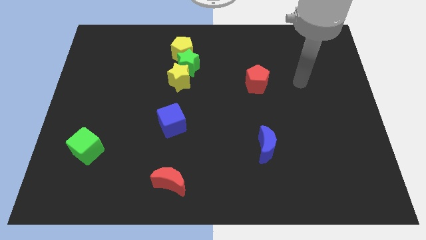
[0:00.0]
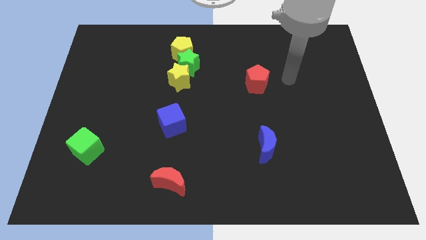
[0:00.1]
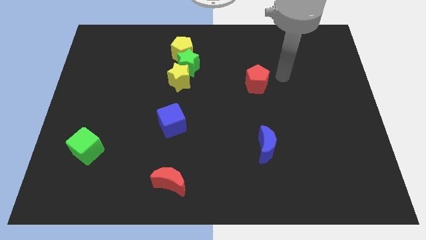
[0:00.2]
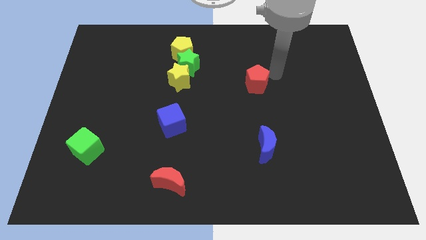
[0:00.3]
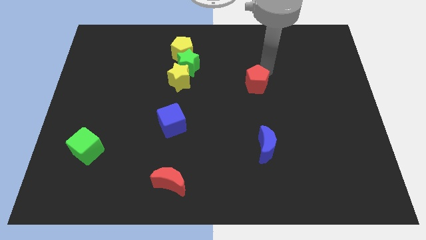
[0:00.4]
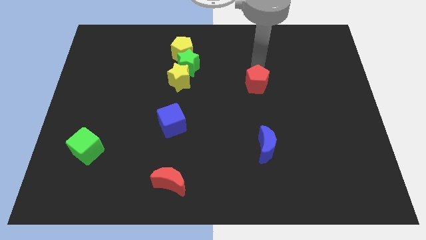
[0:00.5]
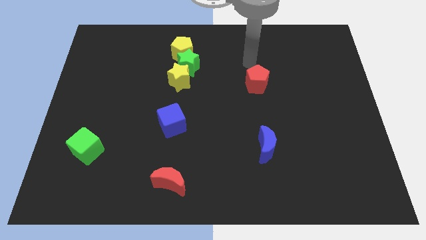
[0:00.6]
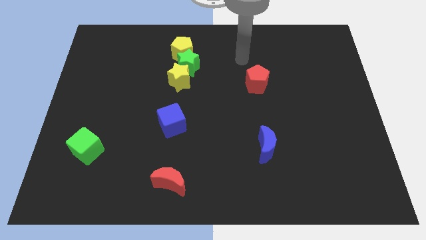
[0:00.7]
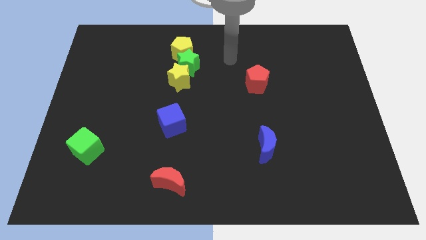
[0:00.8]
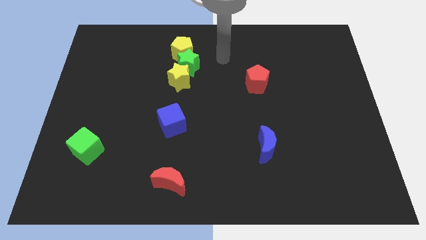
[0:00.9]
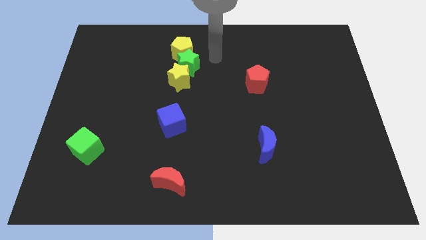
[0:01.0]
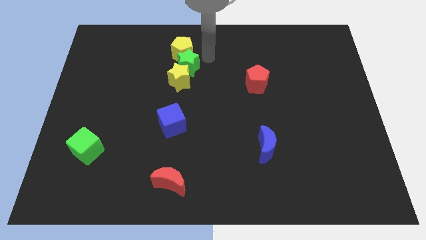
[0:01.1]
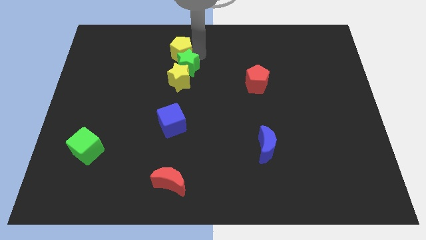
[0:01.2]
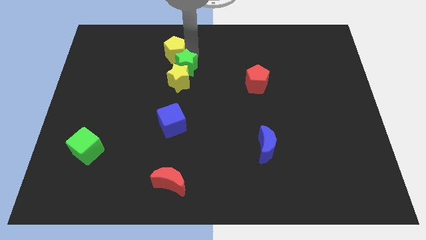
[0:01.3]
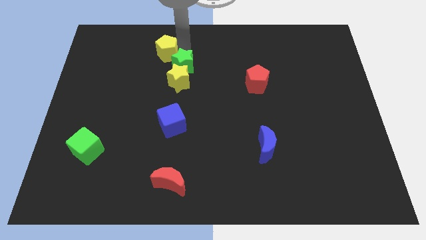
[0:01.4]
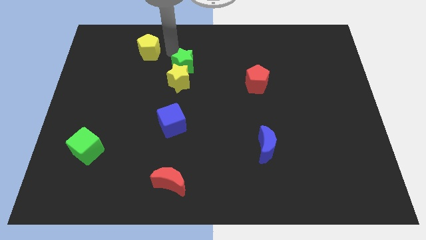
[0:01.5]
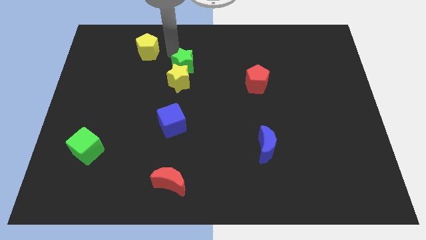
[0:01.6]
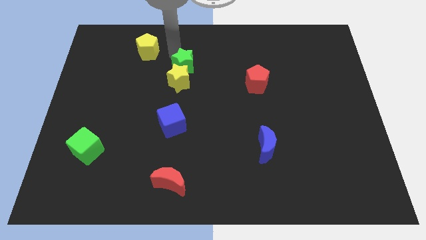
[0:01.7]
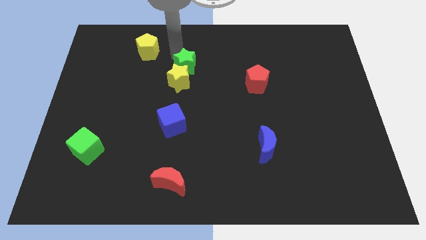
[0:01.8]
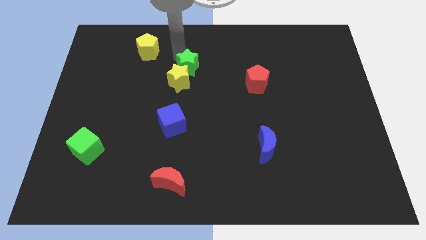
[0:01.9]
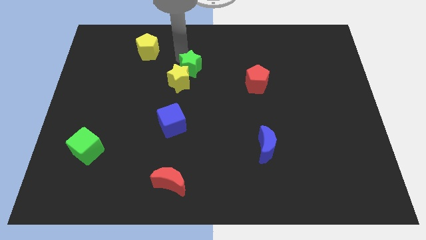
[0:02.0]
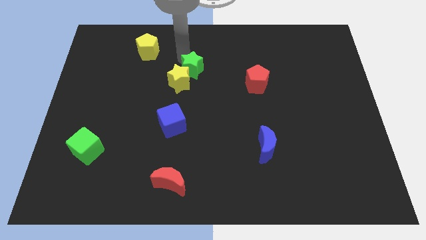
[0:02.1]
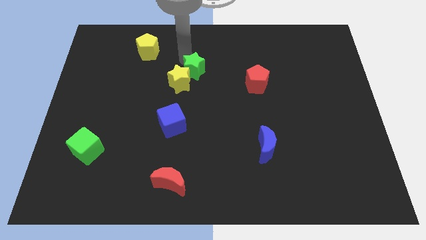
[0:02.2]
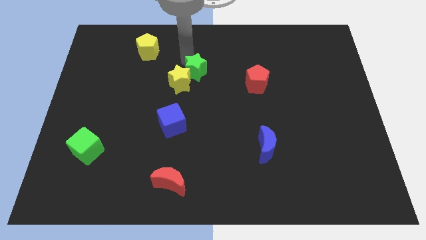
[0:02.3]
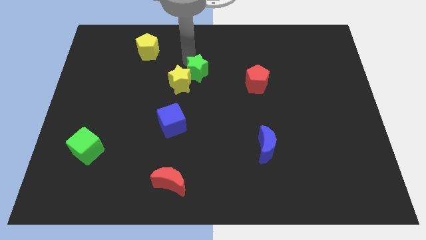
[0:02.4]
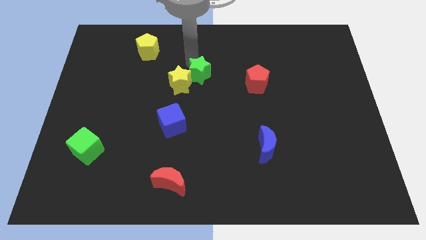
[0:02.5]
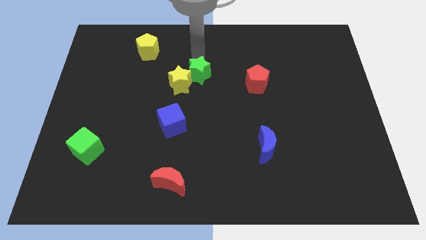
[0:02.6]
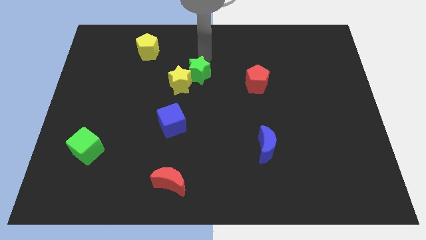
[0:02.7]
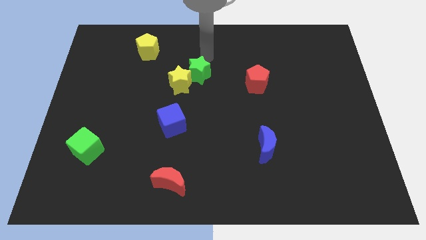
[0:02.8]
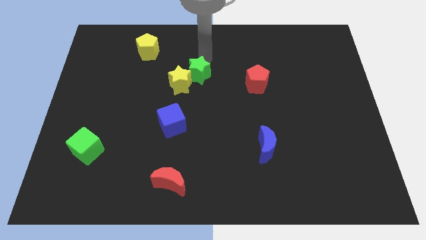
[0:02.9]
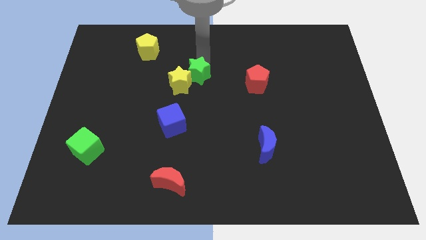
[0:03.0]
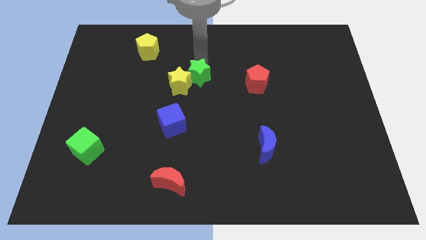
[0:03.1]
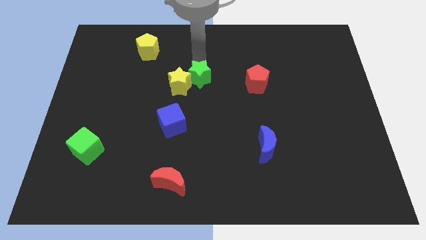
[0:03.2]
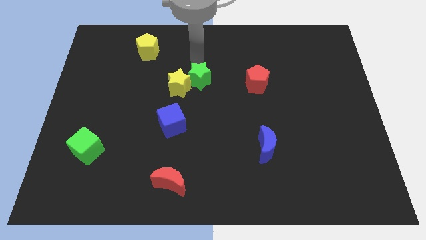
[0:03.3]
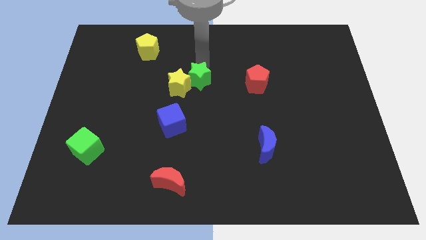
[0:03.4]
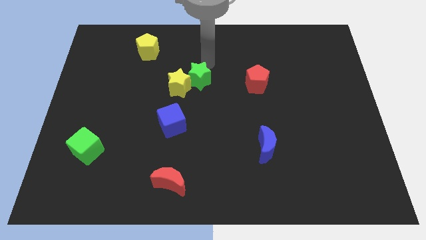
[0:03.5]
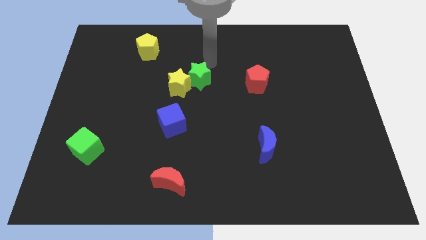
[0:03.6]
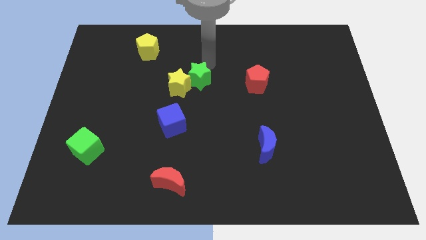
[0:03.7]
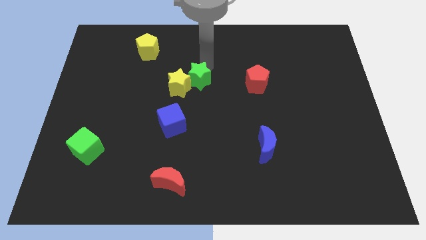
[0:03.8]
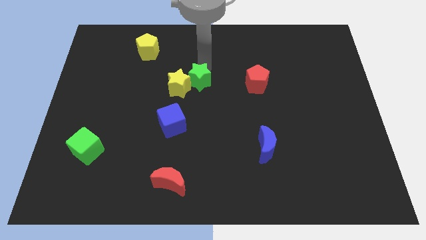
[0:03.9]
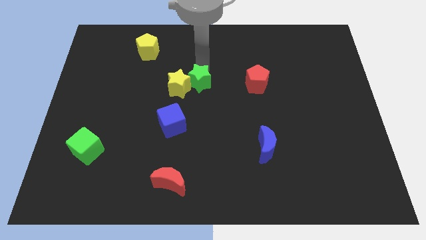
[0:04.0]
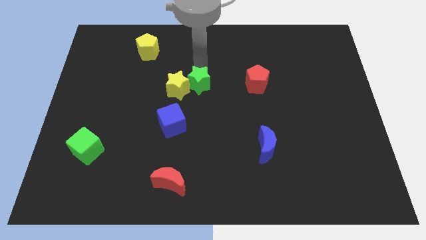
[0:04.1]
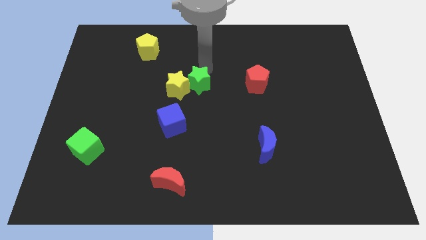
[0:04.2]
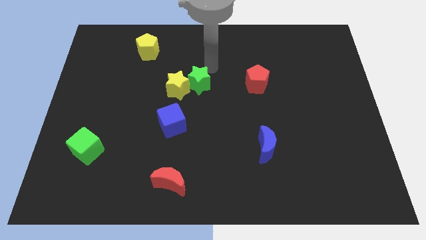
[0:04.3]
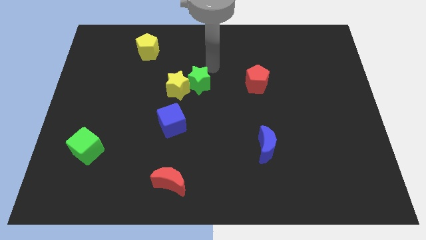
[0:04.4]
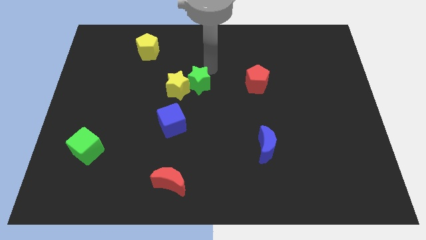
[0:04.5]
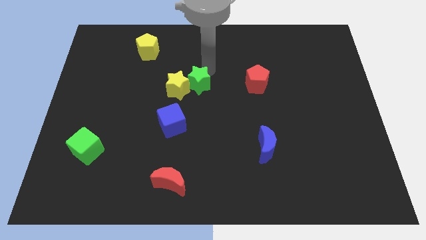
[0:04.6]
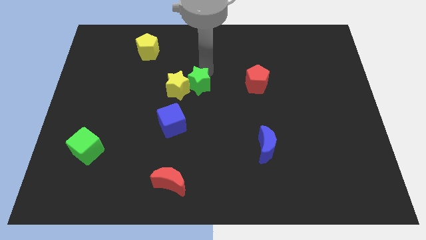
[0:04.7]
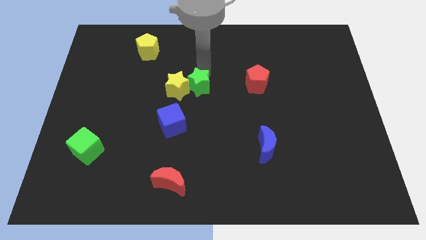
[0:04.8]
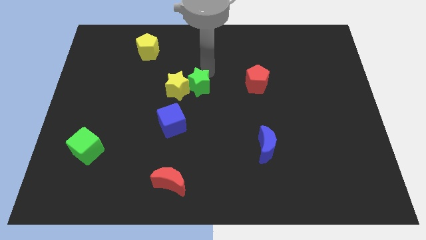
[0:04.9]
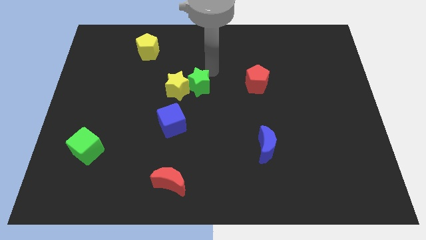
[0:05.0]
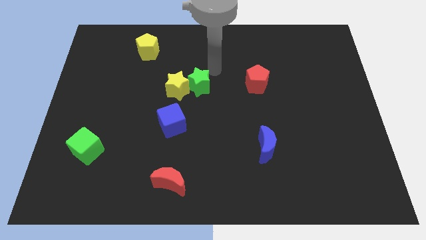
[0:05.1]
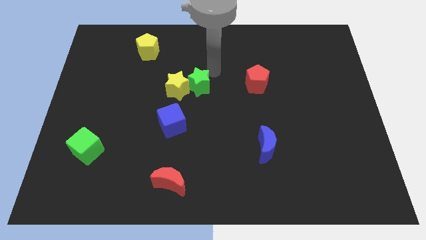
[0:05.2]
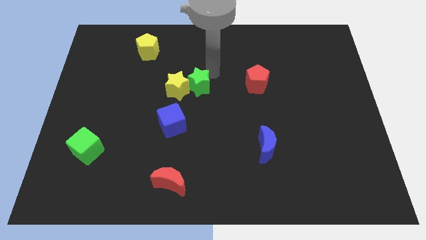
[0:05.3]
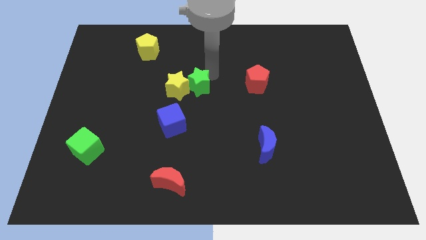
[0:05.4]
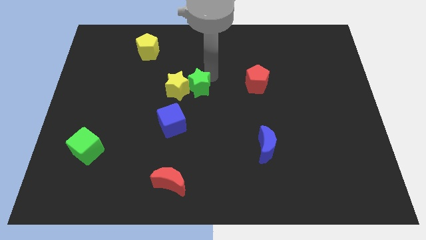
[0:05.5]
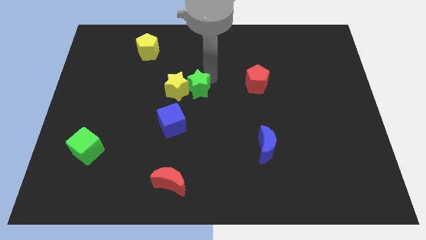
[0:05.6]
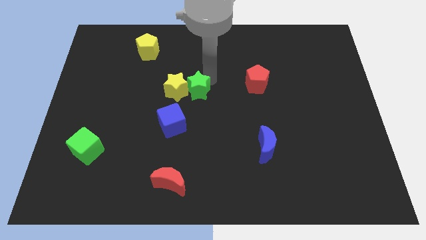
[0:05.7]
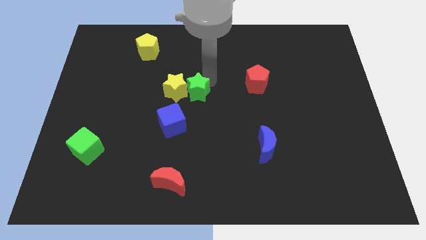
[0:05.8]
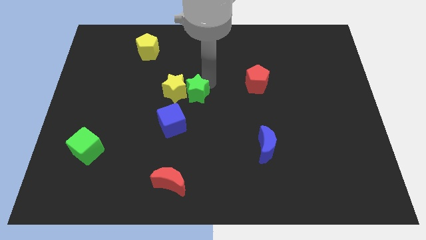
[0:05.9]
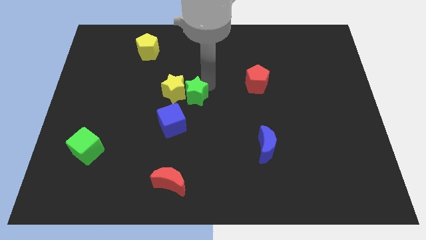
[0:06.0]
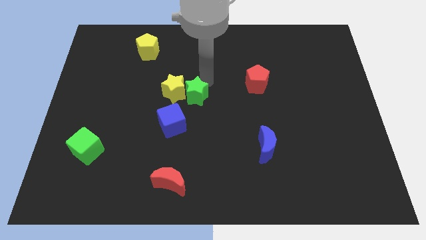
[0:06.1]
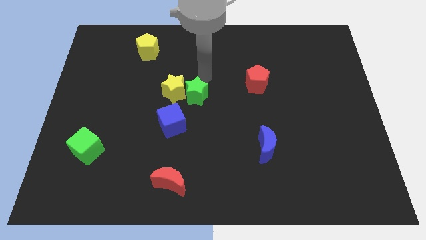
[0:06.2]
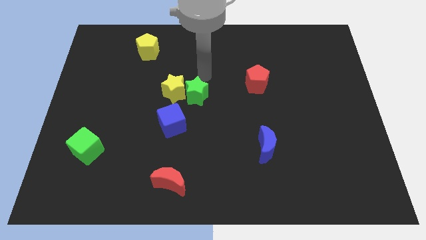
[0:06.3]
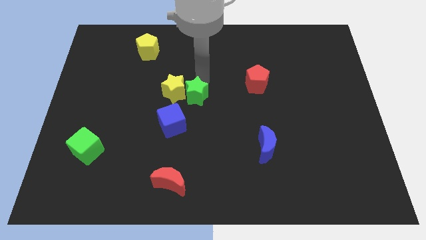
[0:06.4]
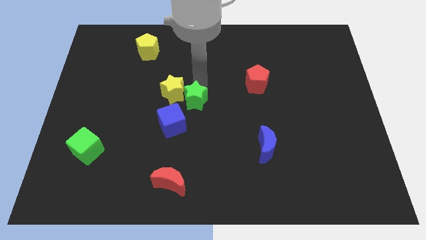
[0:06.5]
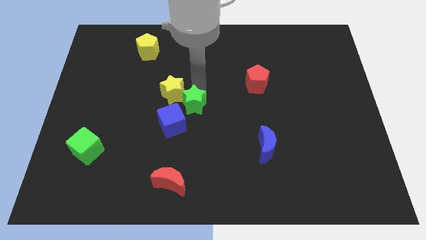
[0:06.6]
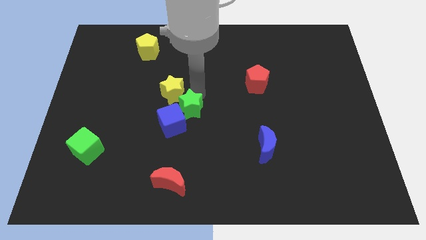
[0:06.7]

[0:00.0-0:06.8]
put the green star next to the blue cube

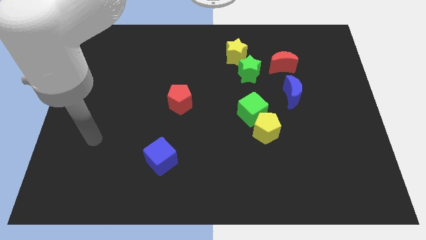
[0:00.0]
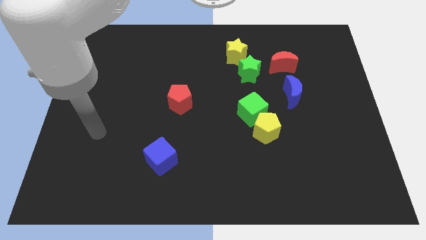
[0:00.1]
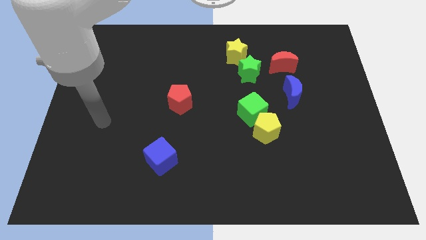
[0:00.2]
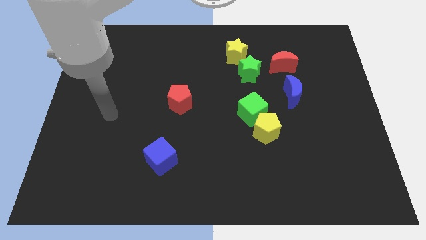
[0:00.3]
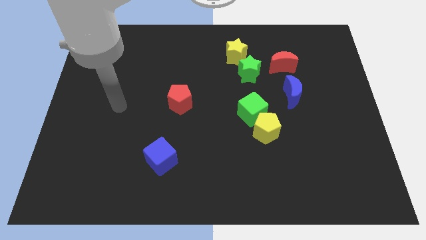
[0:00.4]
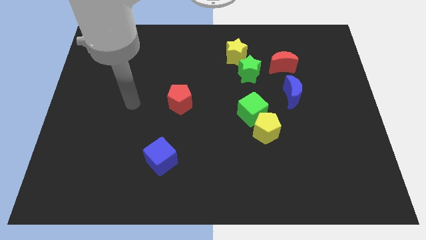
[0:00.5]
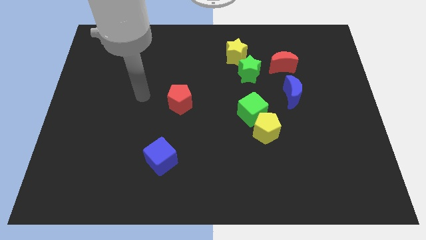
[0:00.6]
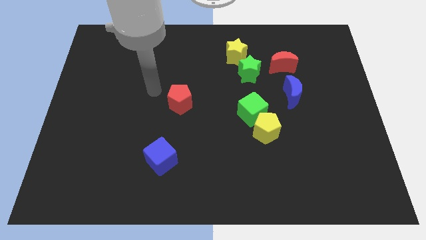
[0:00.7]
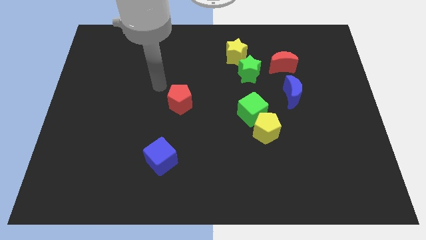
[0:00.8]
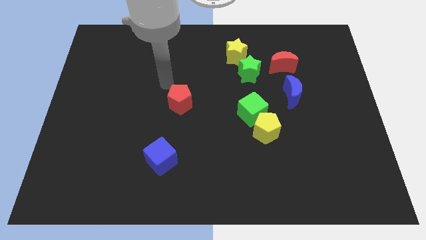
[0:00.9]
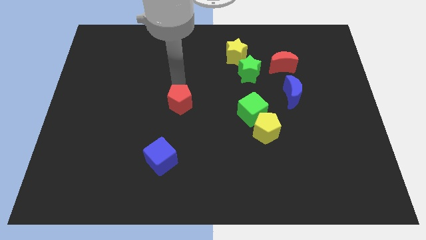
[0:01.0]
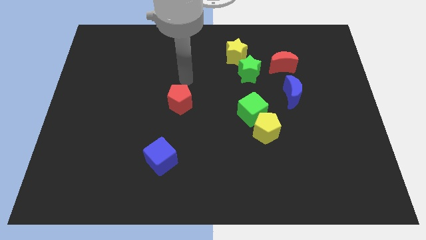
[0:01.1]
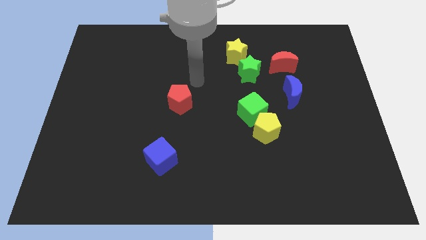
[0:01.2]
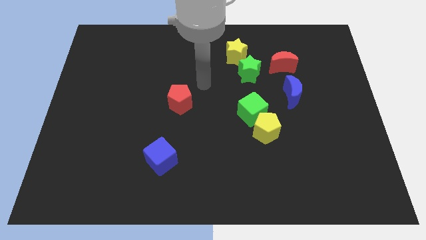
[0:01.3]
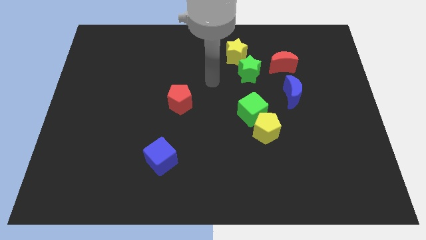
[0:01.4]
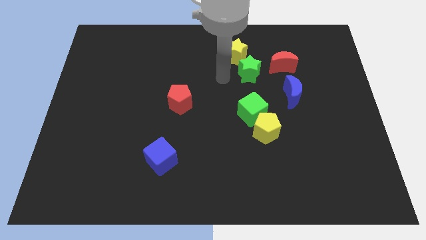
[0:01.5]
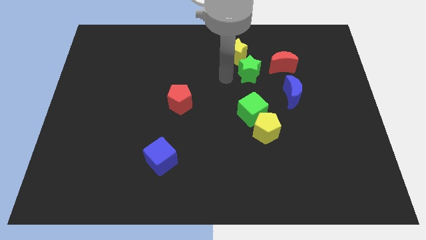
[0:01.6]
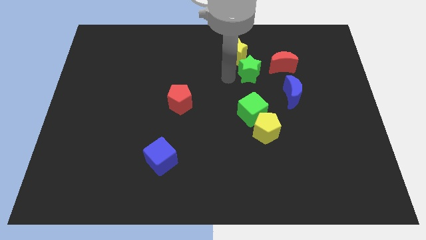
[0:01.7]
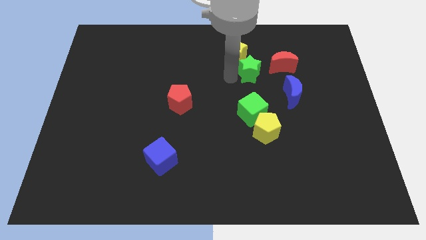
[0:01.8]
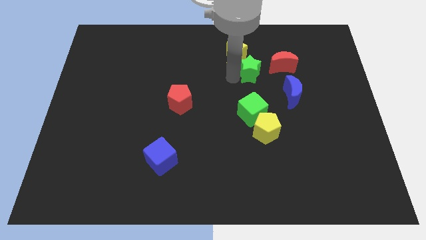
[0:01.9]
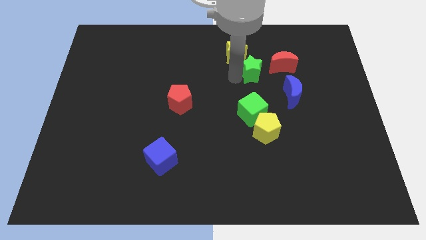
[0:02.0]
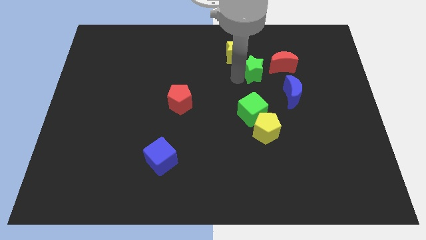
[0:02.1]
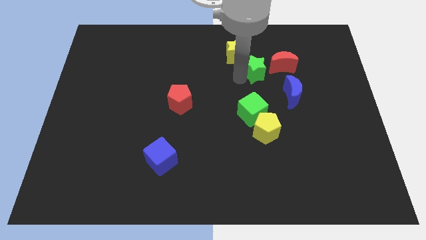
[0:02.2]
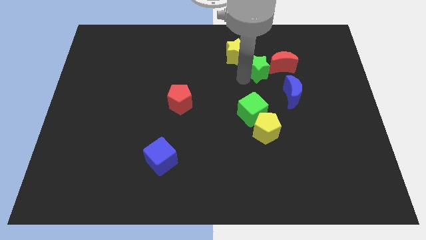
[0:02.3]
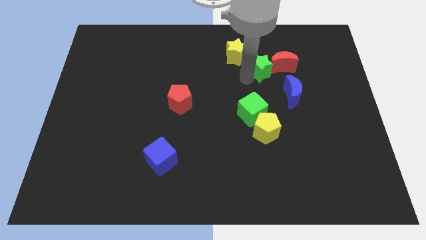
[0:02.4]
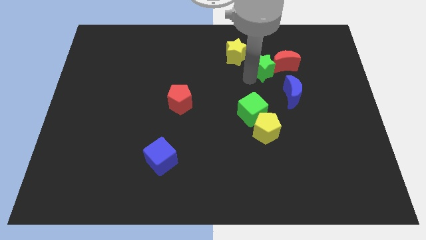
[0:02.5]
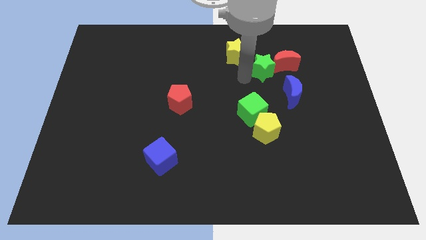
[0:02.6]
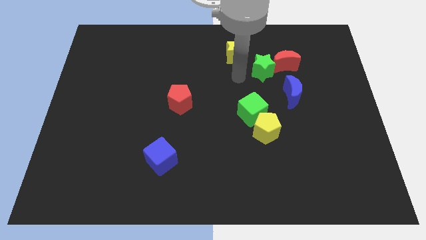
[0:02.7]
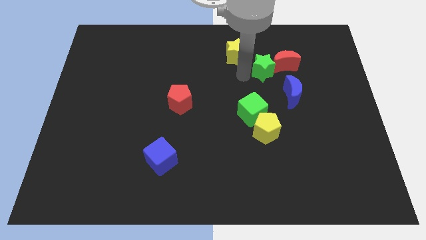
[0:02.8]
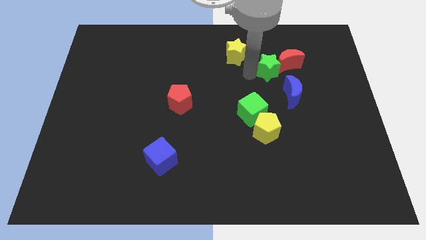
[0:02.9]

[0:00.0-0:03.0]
slide the green star next to the red moon
